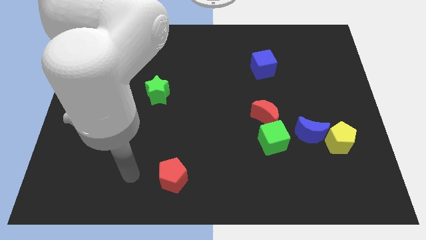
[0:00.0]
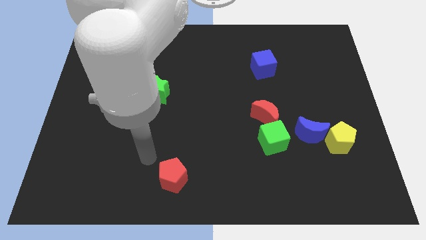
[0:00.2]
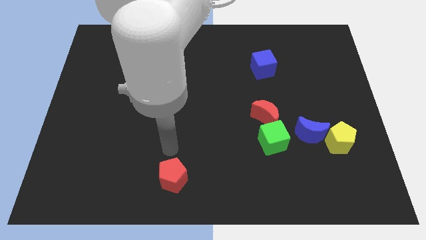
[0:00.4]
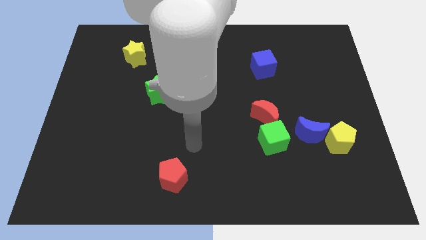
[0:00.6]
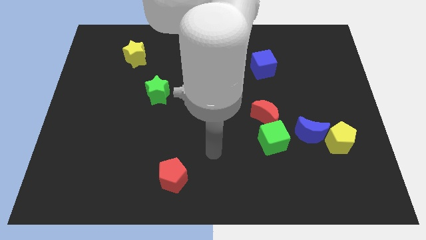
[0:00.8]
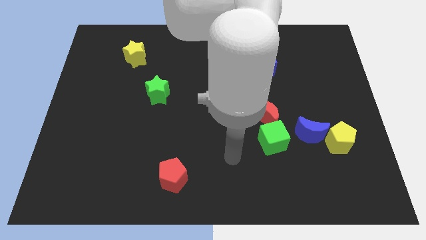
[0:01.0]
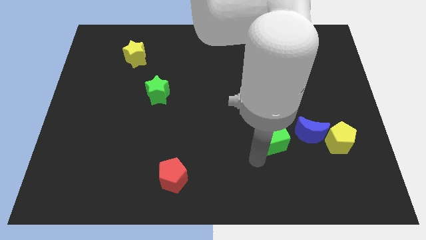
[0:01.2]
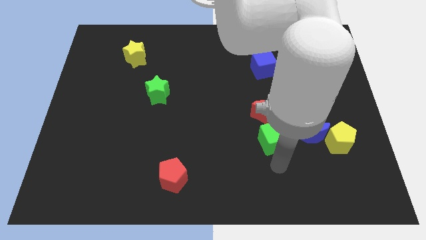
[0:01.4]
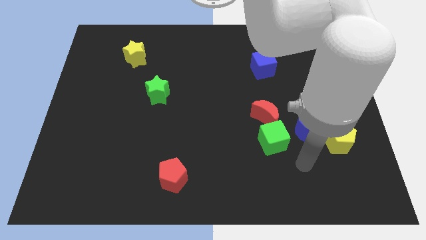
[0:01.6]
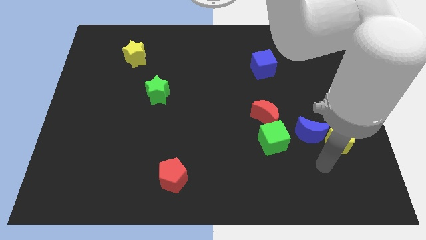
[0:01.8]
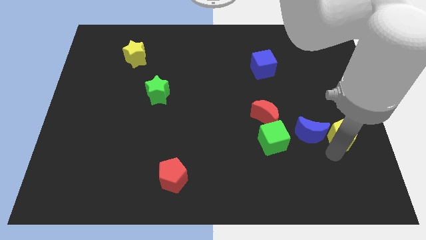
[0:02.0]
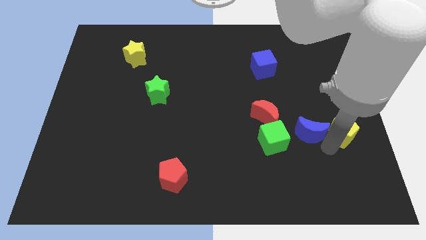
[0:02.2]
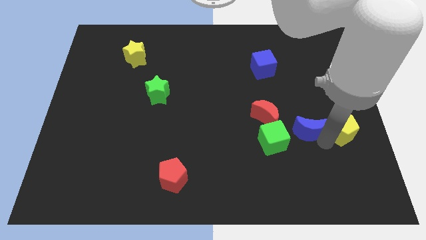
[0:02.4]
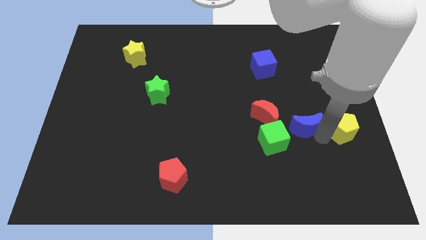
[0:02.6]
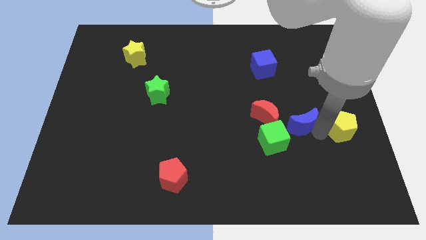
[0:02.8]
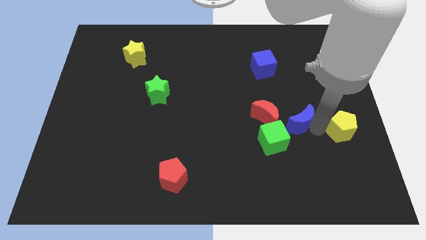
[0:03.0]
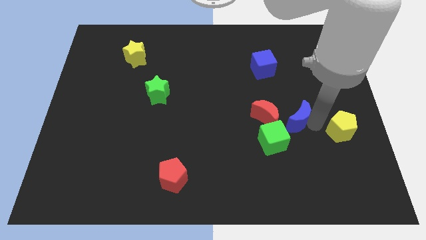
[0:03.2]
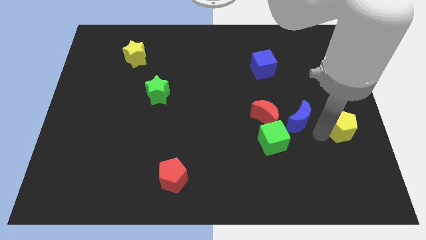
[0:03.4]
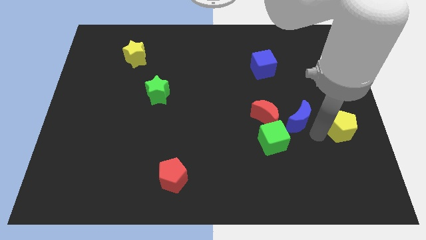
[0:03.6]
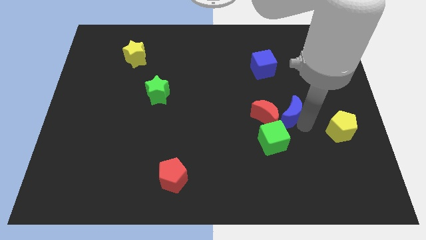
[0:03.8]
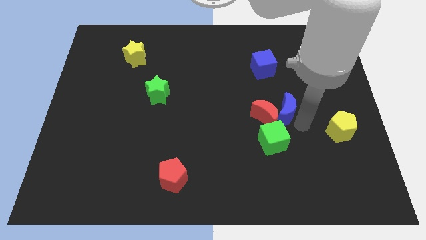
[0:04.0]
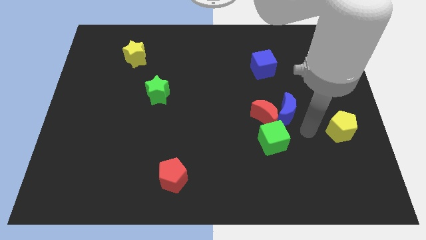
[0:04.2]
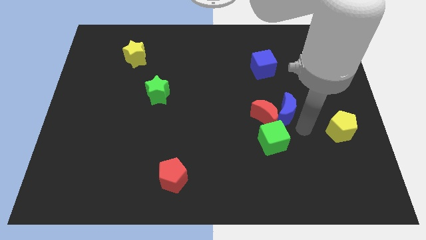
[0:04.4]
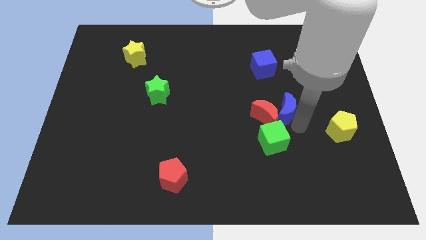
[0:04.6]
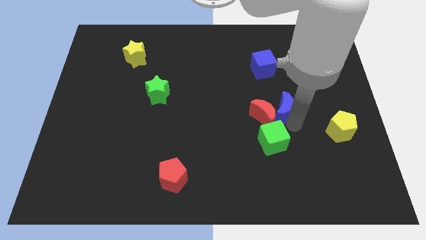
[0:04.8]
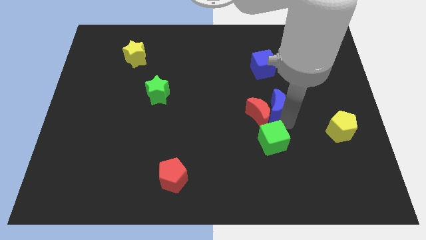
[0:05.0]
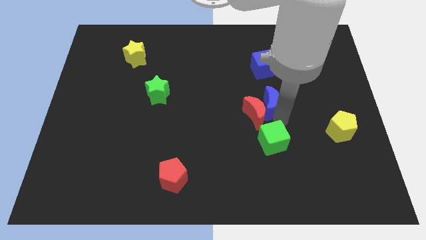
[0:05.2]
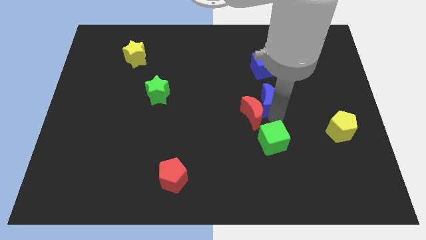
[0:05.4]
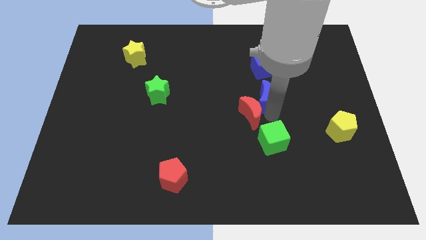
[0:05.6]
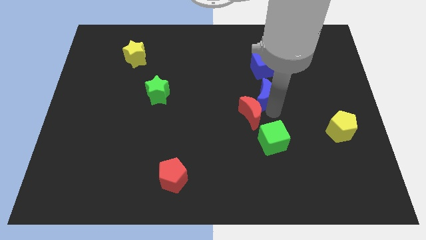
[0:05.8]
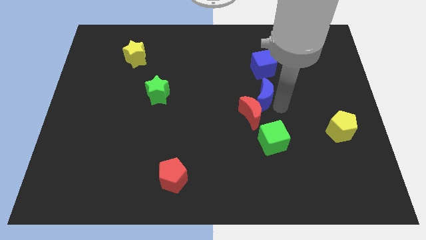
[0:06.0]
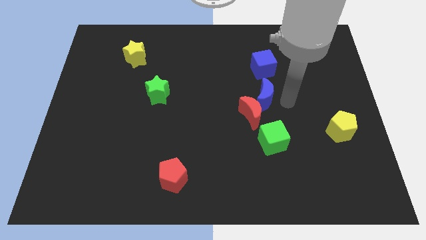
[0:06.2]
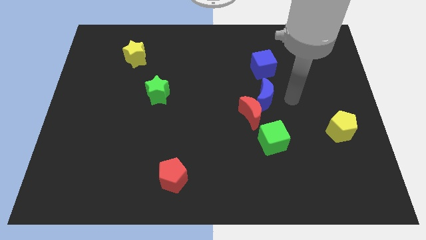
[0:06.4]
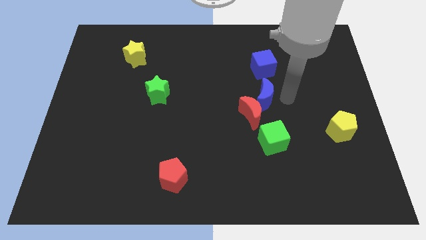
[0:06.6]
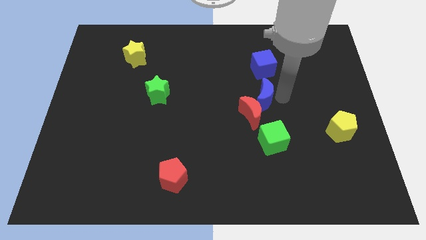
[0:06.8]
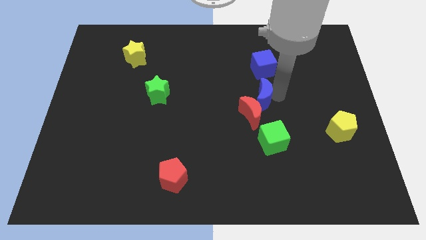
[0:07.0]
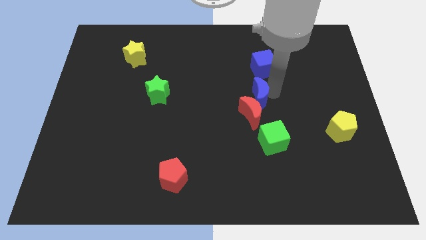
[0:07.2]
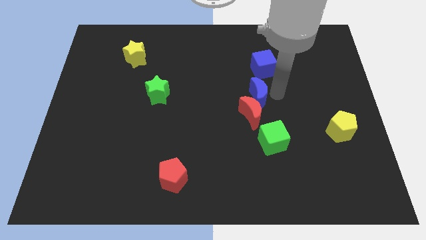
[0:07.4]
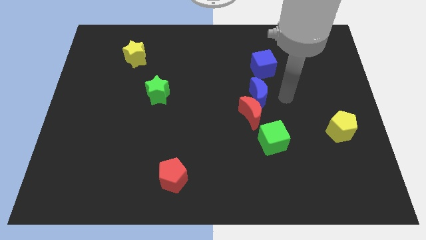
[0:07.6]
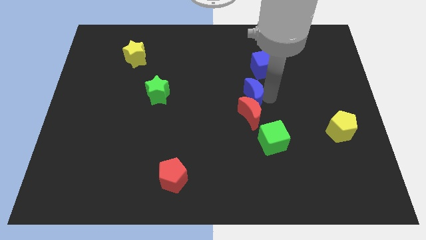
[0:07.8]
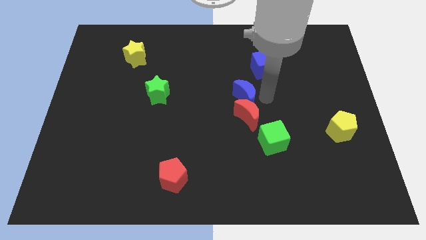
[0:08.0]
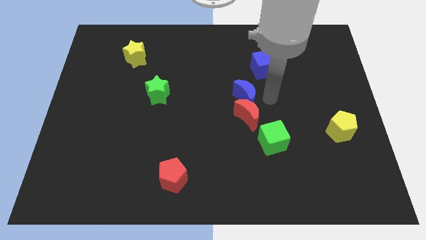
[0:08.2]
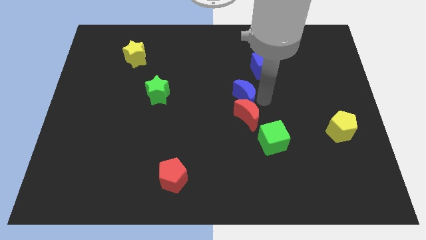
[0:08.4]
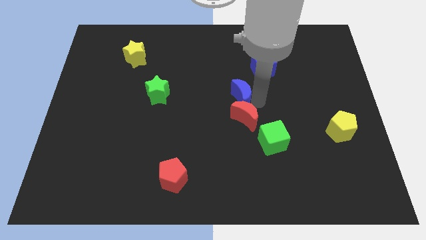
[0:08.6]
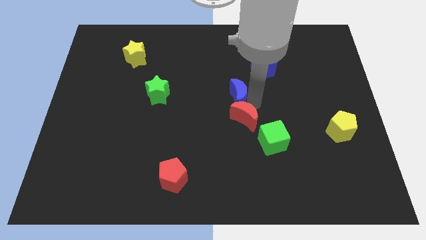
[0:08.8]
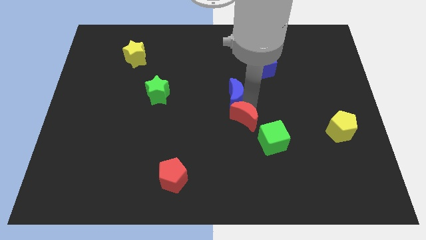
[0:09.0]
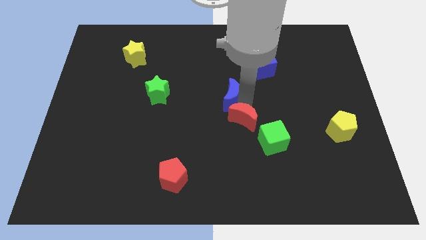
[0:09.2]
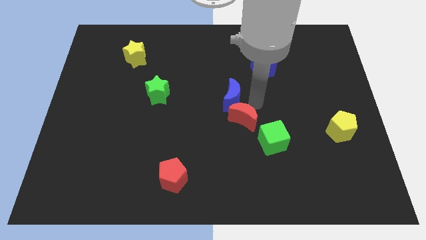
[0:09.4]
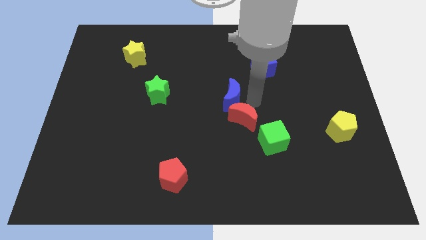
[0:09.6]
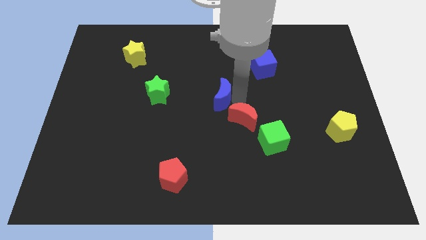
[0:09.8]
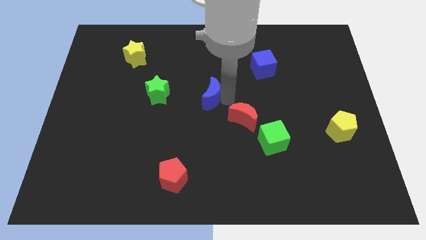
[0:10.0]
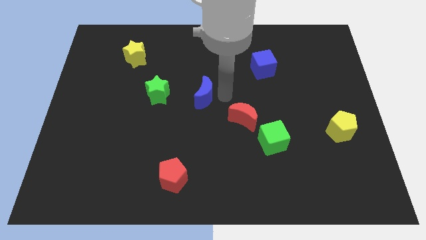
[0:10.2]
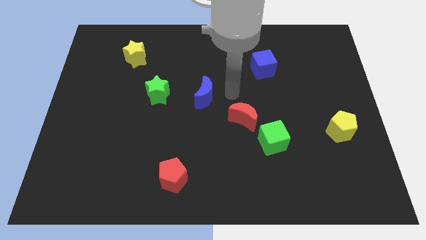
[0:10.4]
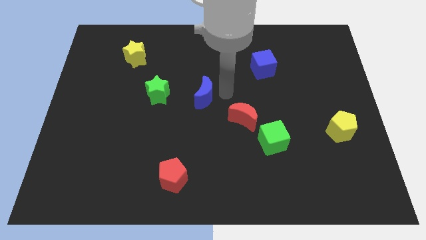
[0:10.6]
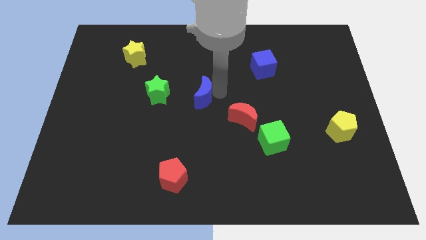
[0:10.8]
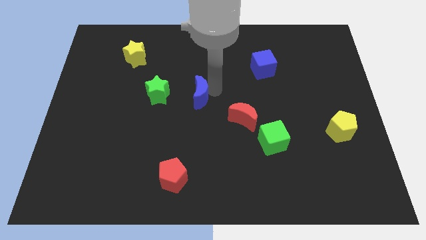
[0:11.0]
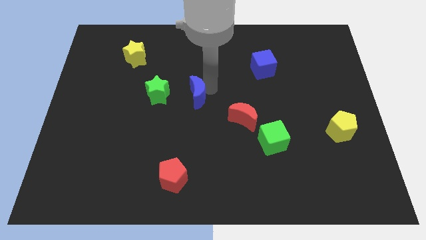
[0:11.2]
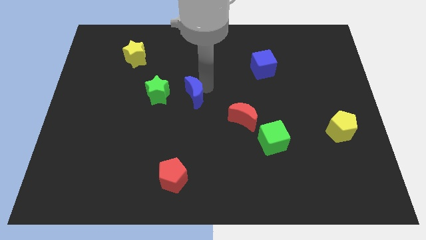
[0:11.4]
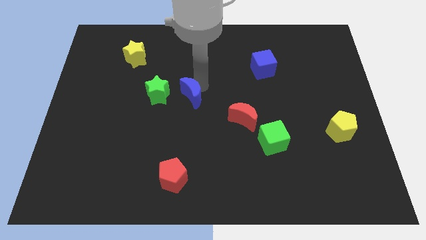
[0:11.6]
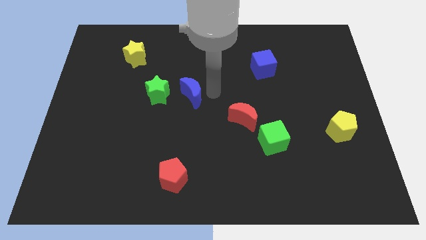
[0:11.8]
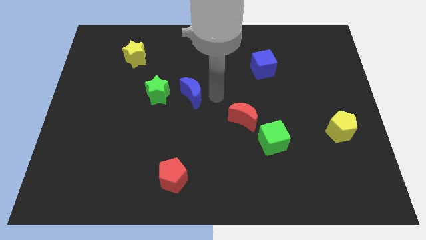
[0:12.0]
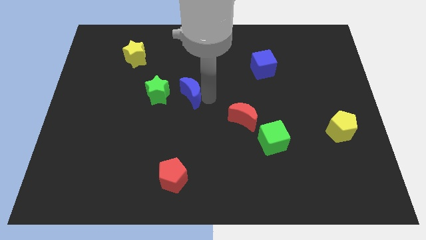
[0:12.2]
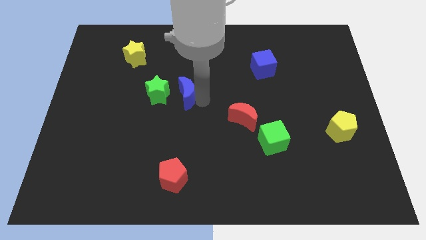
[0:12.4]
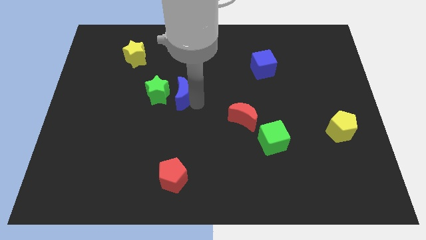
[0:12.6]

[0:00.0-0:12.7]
put the blue moon to the green star

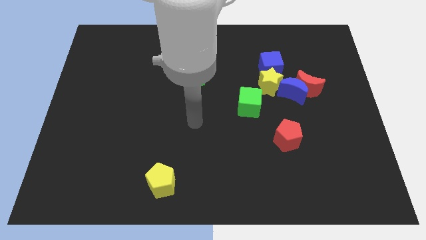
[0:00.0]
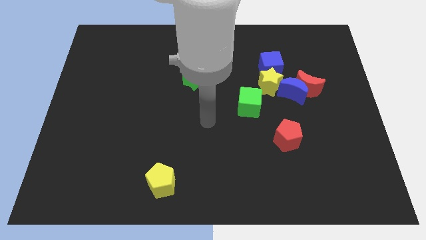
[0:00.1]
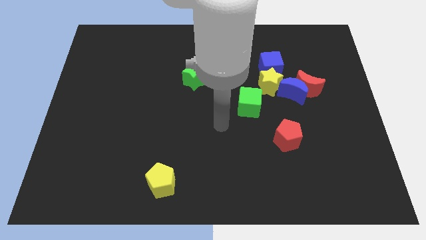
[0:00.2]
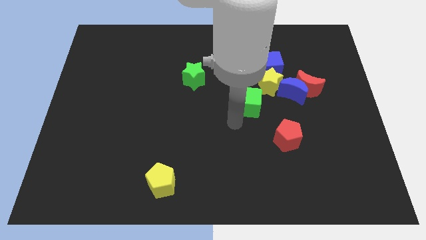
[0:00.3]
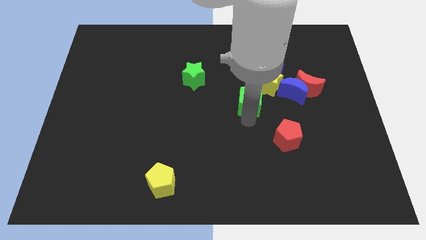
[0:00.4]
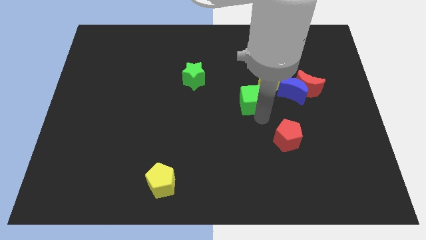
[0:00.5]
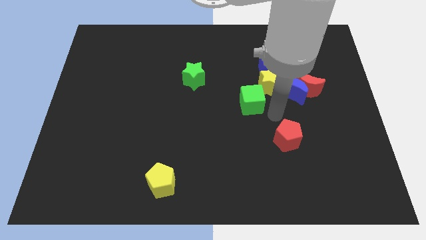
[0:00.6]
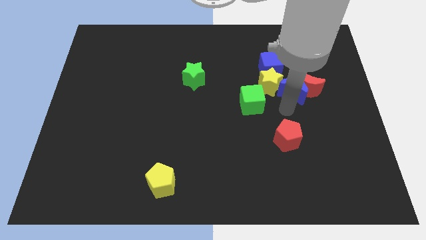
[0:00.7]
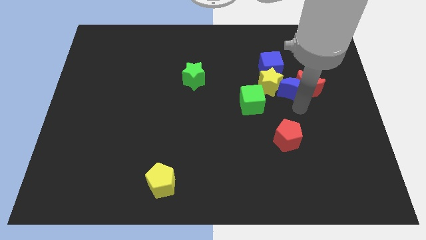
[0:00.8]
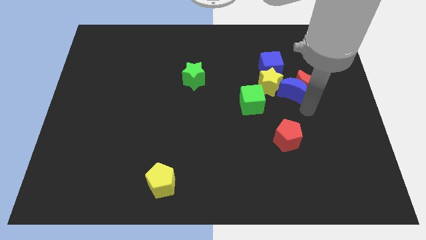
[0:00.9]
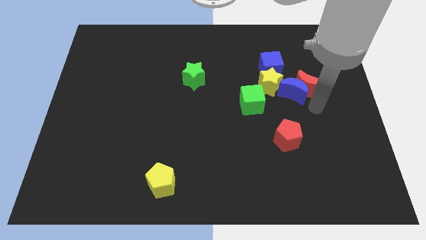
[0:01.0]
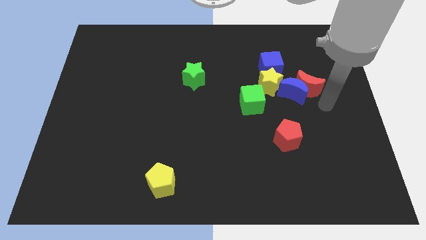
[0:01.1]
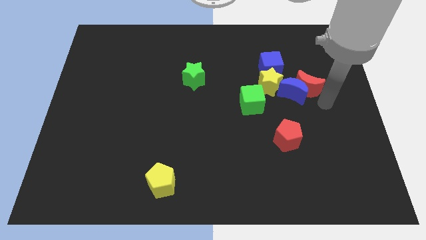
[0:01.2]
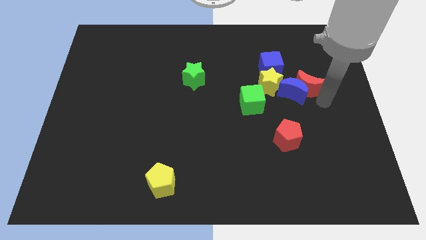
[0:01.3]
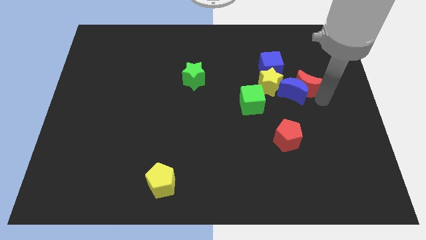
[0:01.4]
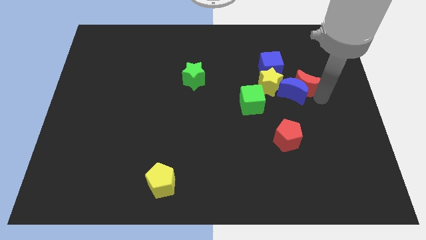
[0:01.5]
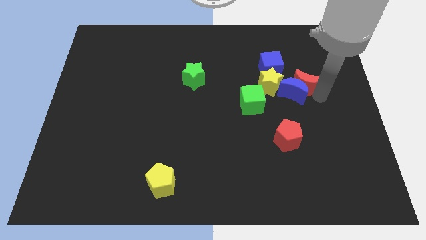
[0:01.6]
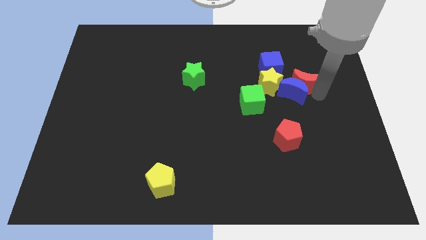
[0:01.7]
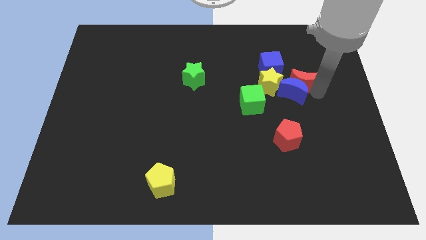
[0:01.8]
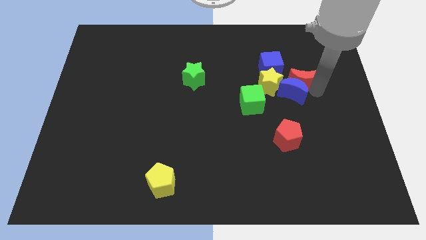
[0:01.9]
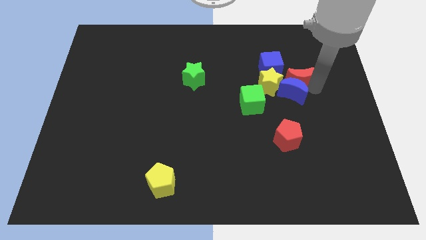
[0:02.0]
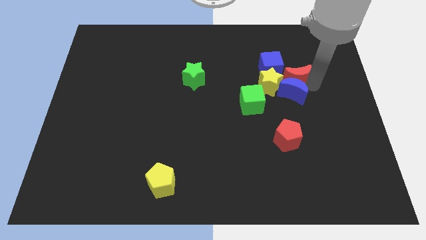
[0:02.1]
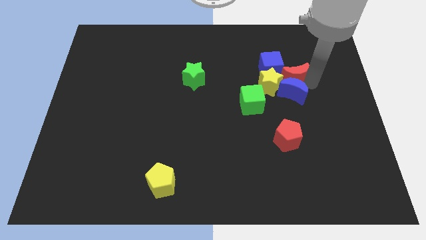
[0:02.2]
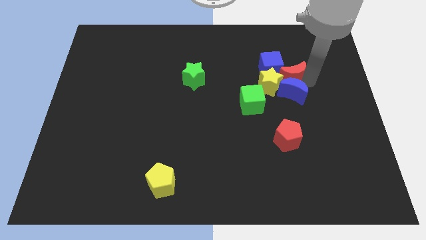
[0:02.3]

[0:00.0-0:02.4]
push the red moon to the blue cube
